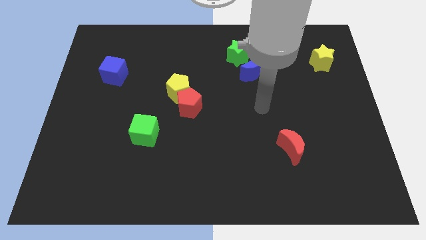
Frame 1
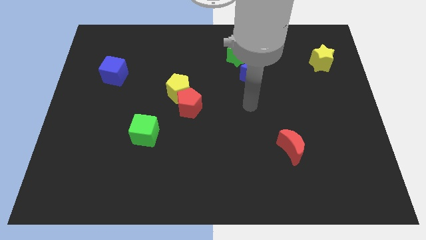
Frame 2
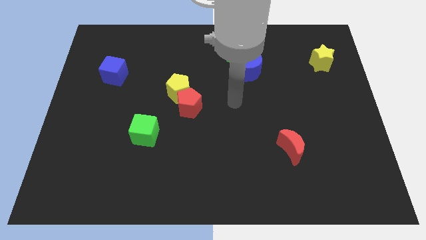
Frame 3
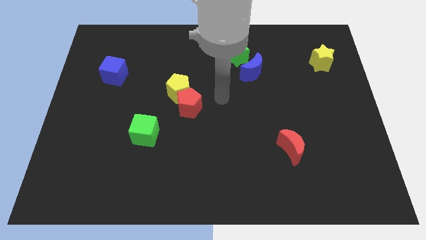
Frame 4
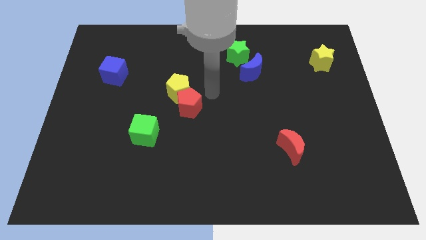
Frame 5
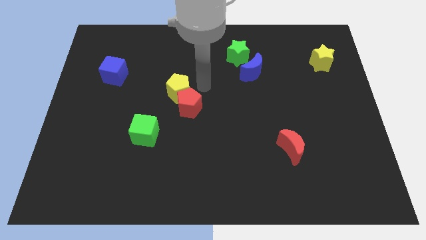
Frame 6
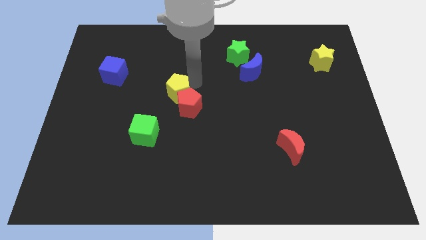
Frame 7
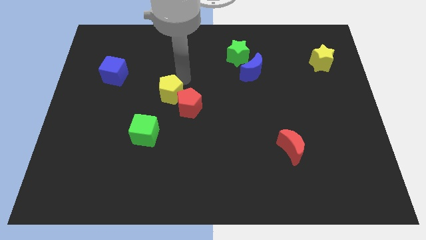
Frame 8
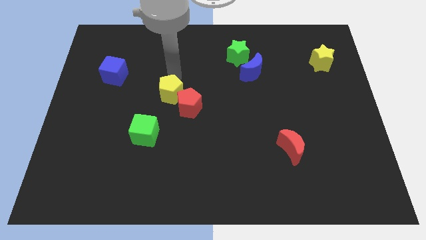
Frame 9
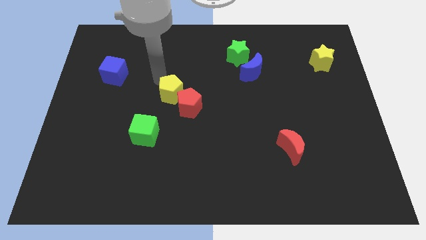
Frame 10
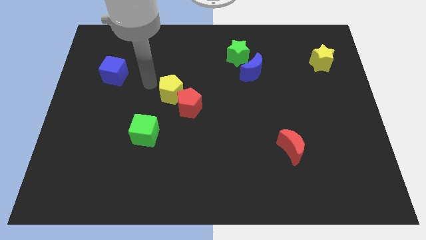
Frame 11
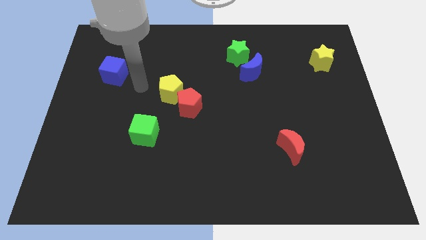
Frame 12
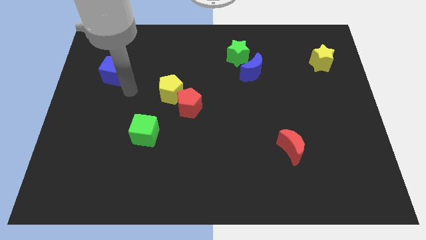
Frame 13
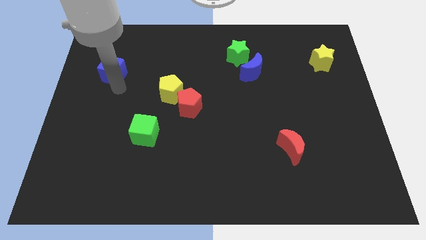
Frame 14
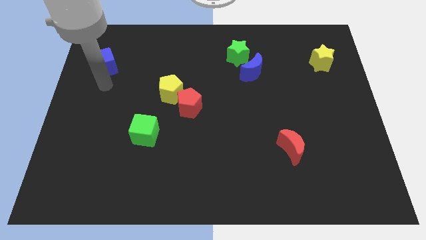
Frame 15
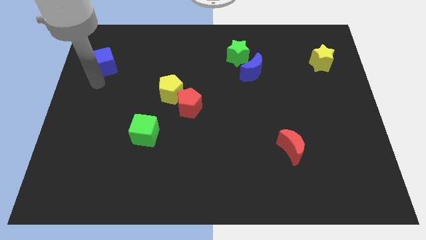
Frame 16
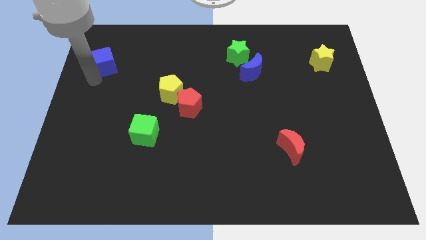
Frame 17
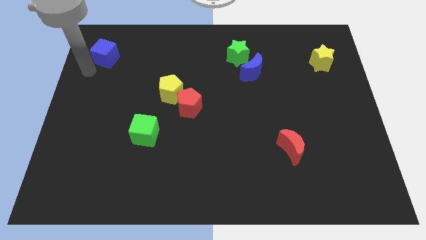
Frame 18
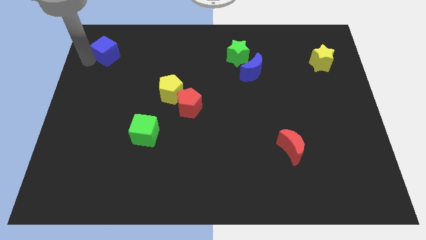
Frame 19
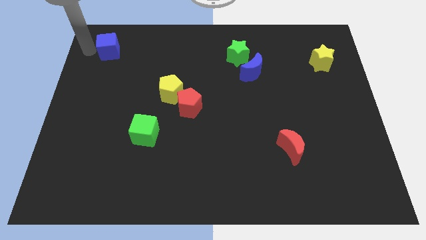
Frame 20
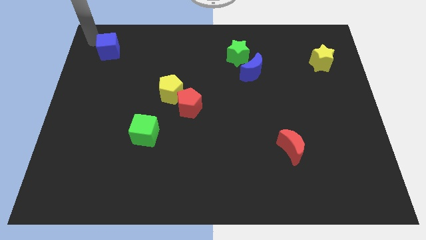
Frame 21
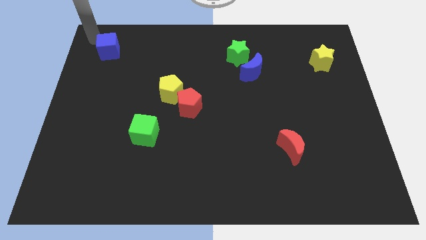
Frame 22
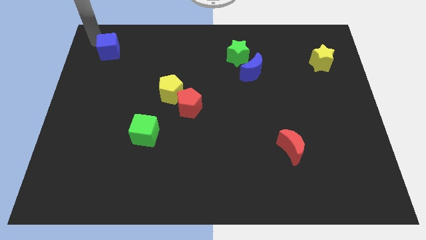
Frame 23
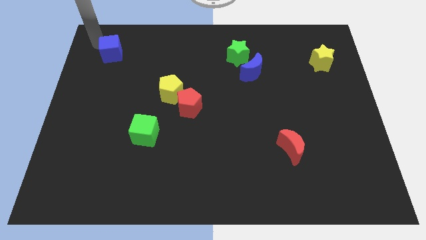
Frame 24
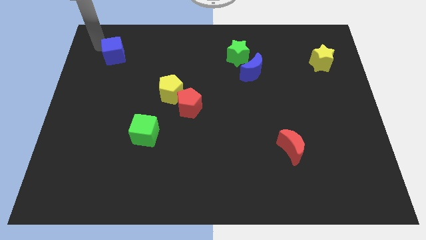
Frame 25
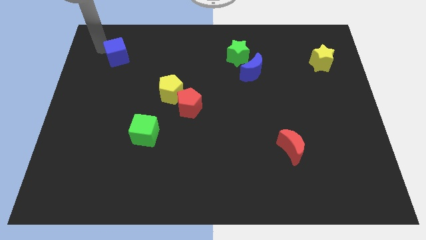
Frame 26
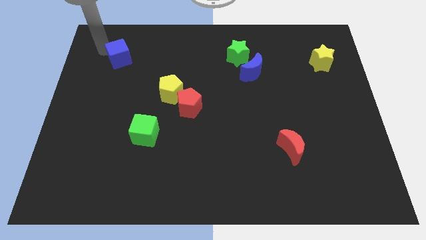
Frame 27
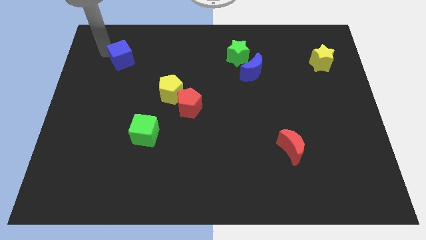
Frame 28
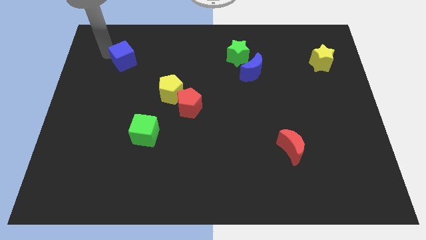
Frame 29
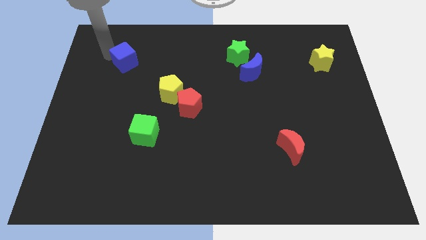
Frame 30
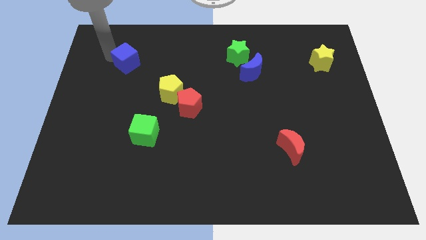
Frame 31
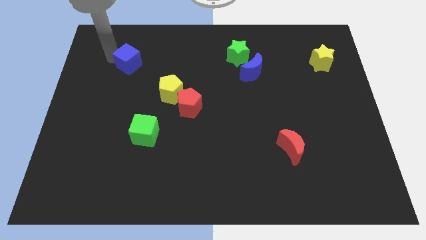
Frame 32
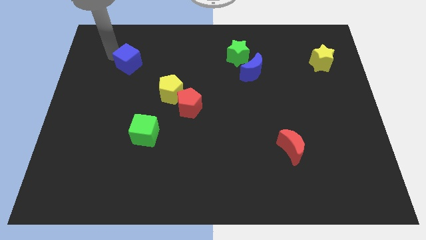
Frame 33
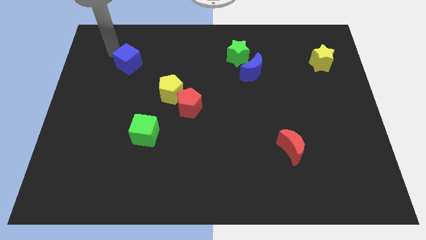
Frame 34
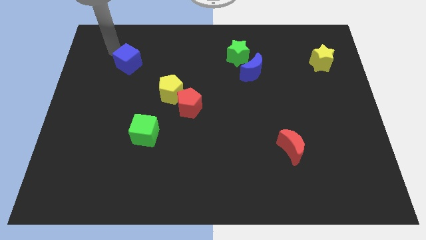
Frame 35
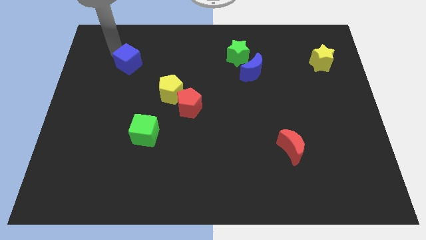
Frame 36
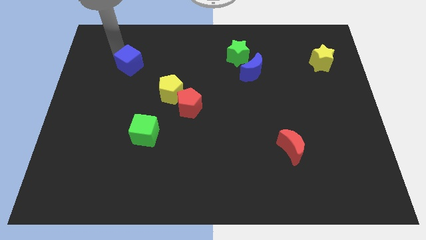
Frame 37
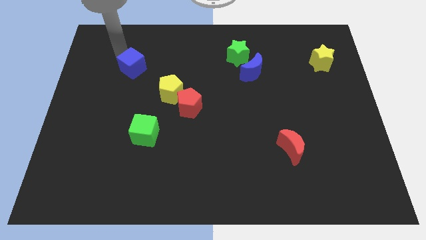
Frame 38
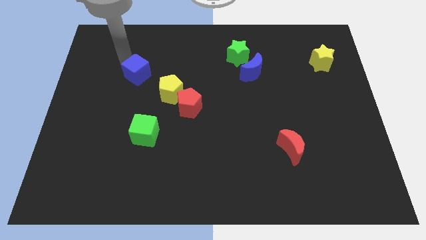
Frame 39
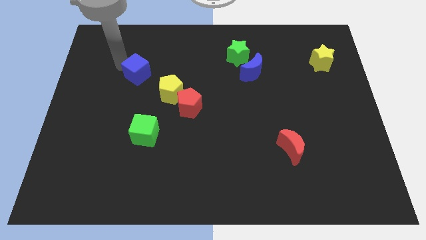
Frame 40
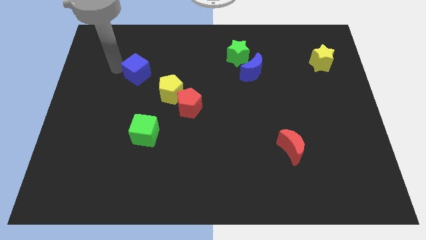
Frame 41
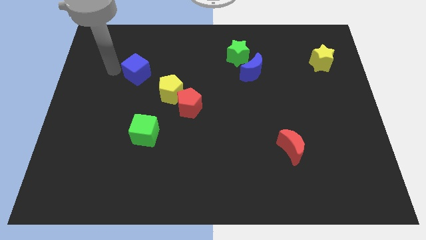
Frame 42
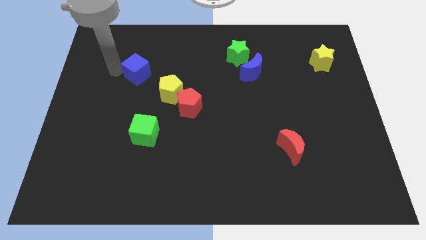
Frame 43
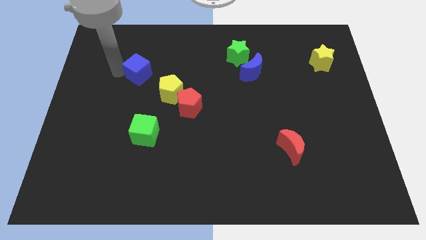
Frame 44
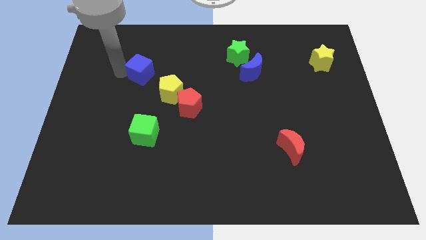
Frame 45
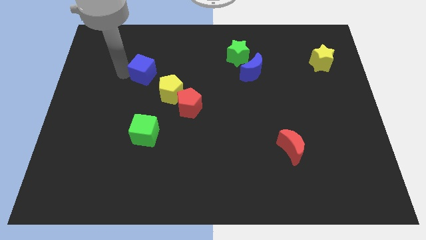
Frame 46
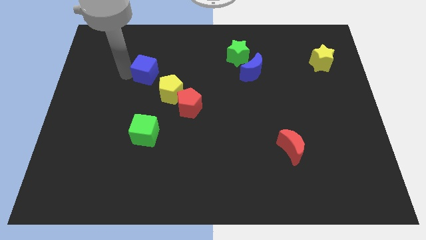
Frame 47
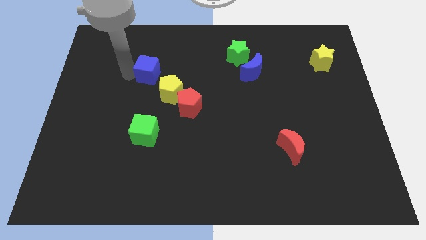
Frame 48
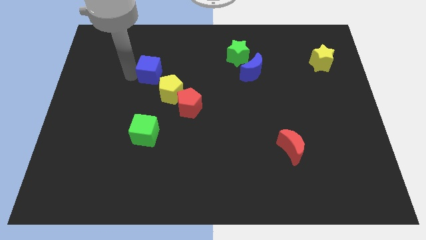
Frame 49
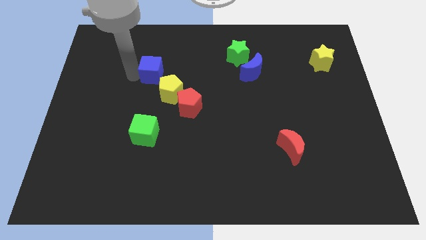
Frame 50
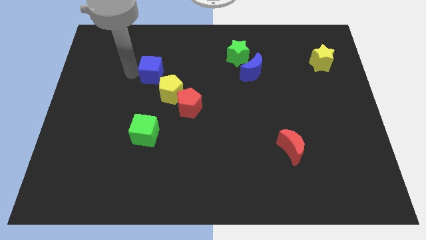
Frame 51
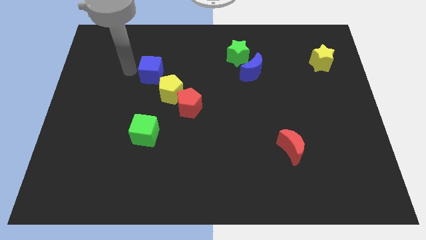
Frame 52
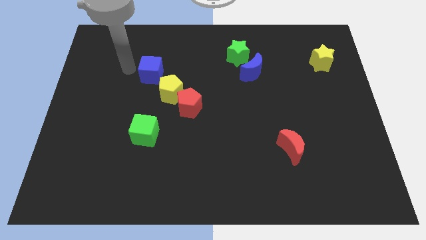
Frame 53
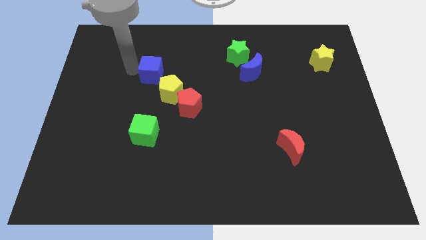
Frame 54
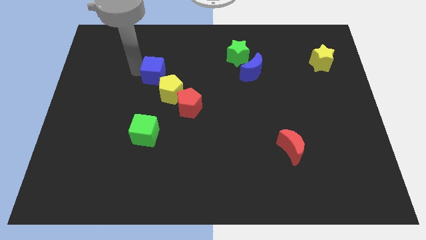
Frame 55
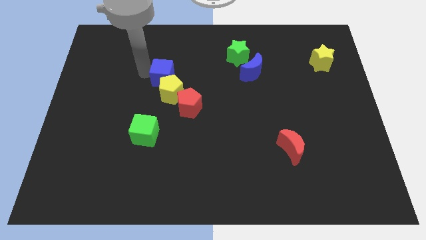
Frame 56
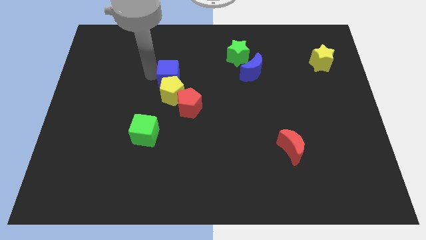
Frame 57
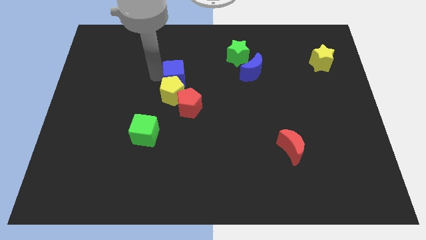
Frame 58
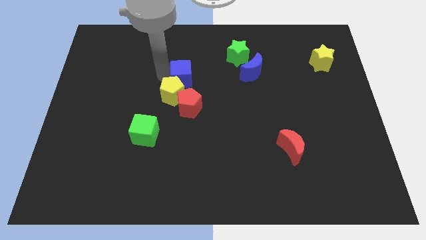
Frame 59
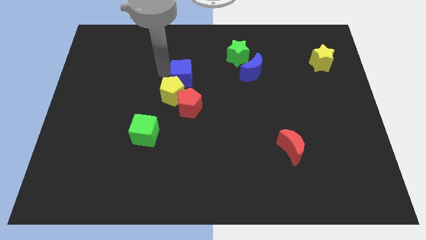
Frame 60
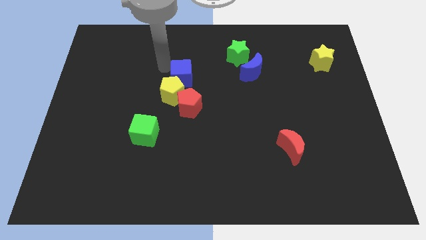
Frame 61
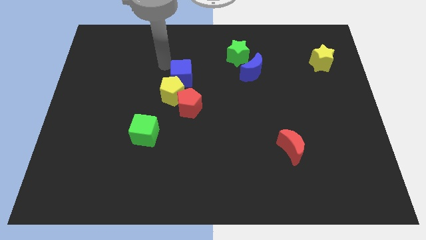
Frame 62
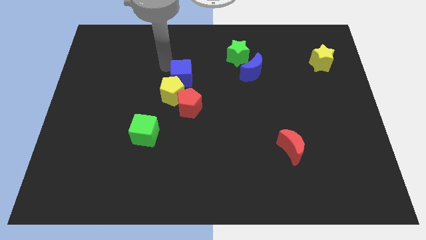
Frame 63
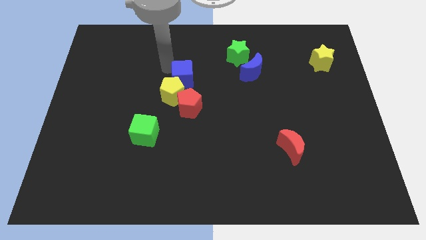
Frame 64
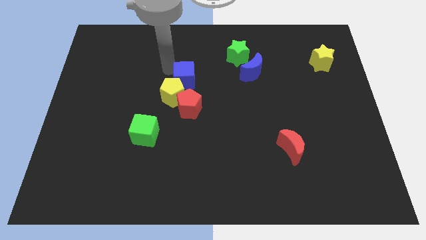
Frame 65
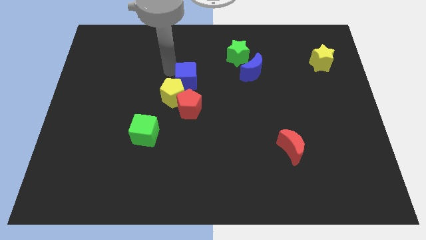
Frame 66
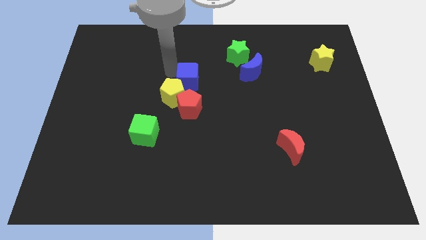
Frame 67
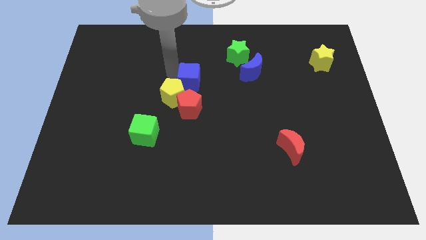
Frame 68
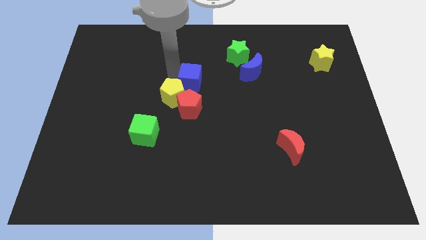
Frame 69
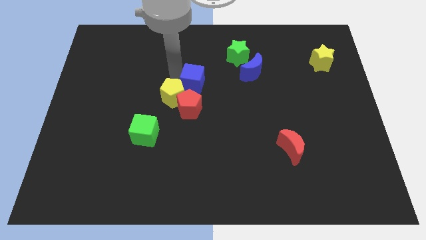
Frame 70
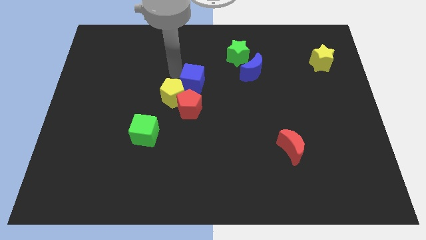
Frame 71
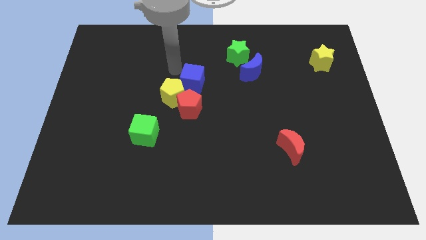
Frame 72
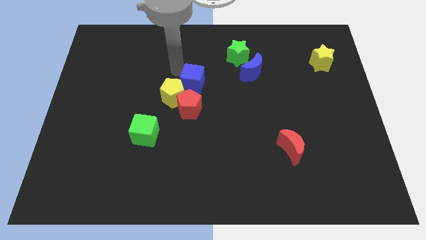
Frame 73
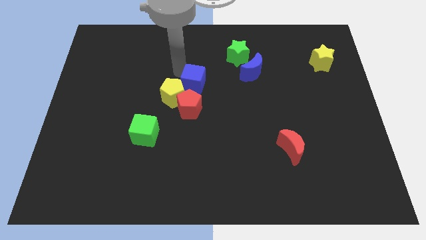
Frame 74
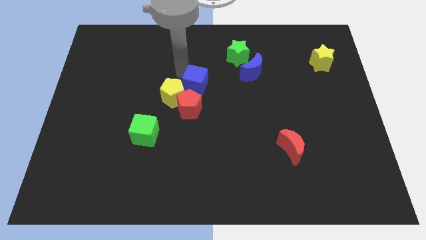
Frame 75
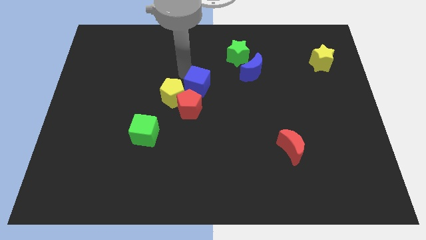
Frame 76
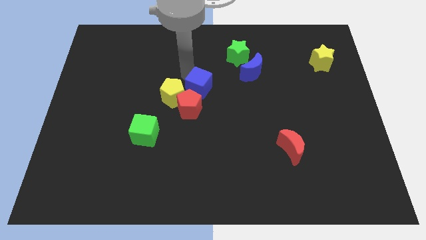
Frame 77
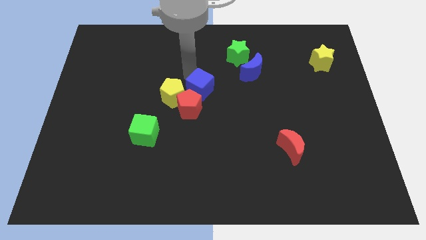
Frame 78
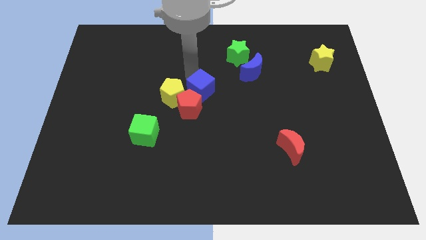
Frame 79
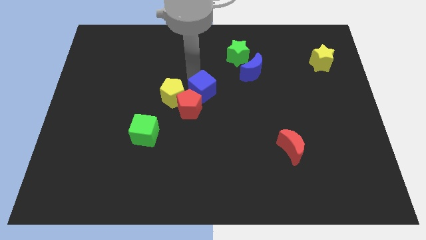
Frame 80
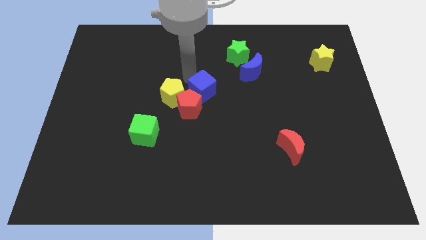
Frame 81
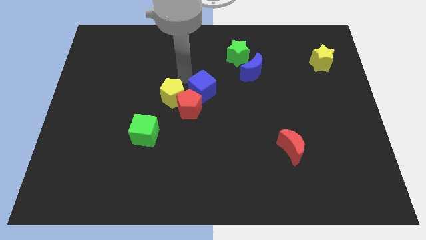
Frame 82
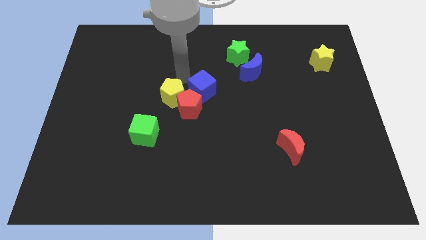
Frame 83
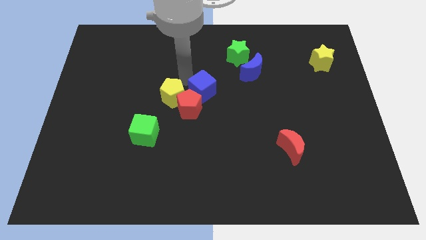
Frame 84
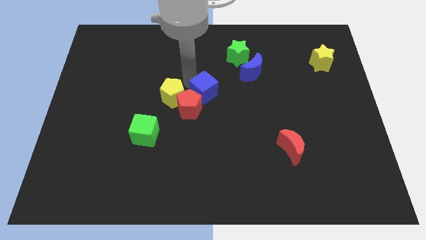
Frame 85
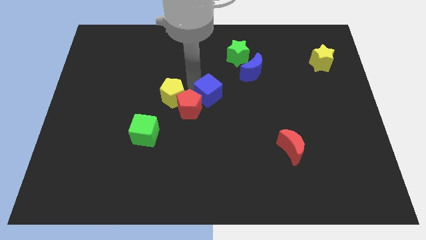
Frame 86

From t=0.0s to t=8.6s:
put the blue cube to the right side of the red pentagon
